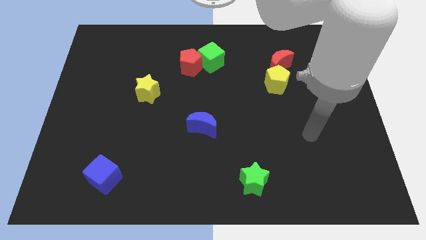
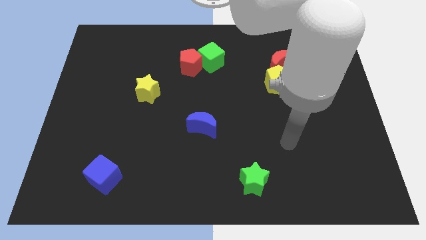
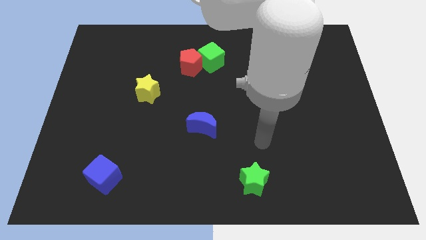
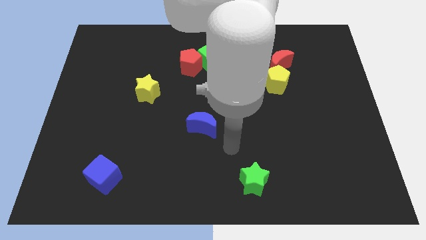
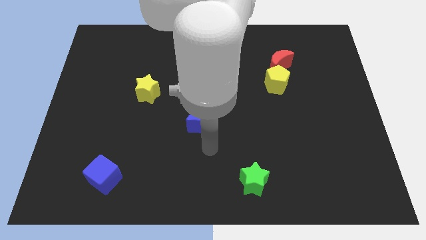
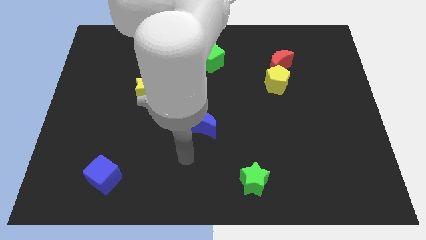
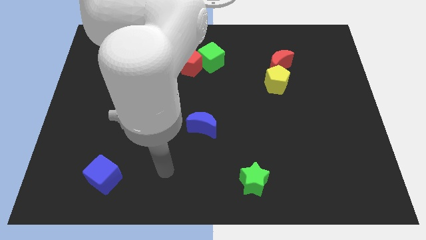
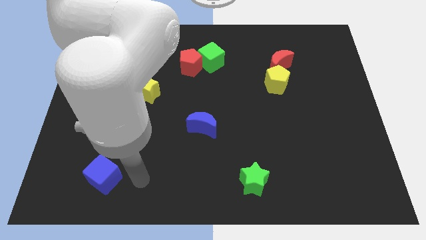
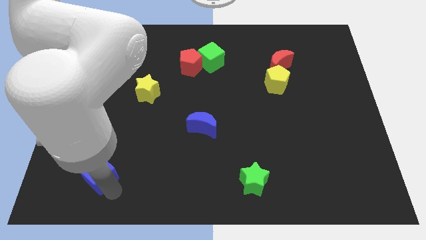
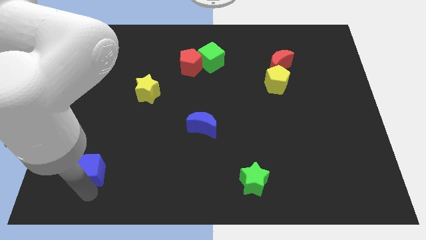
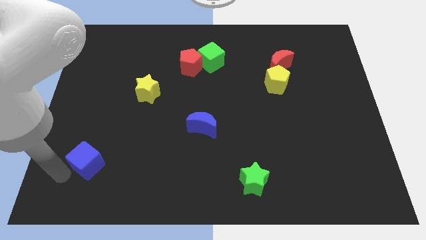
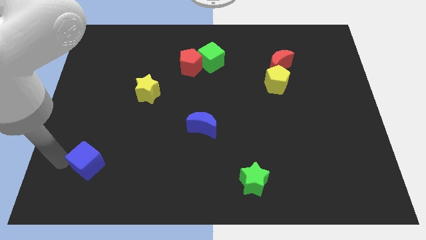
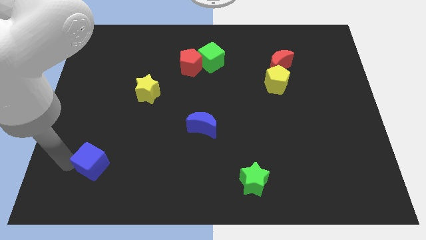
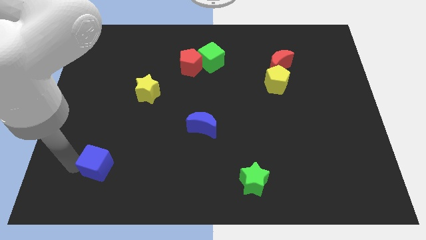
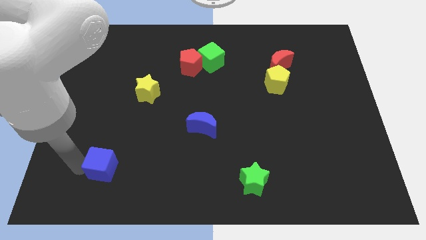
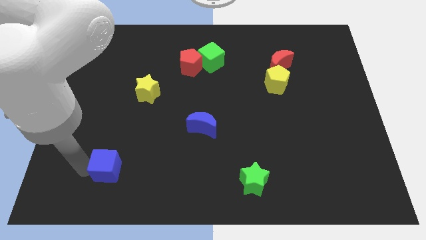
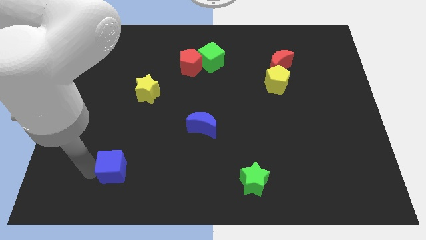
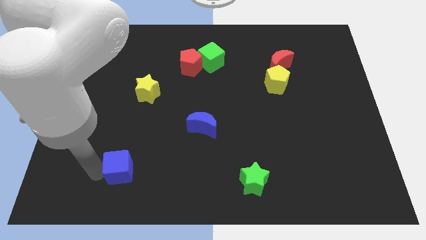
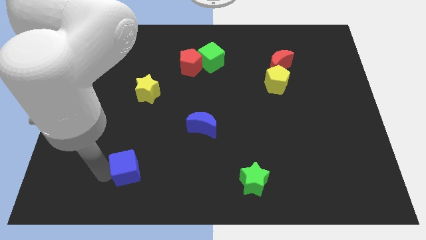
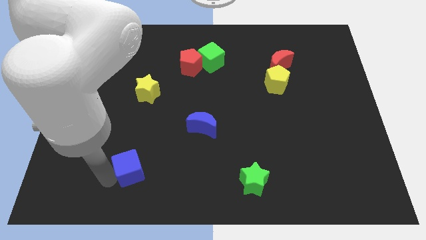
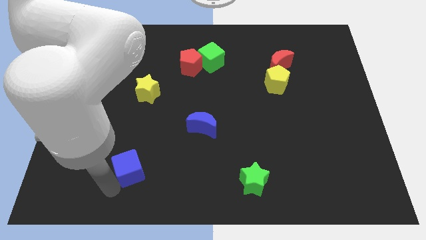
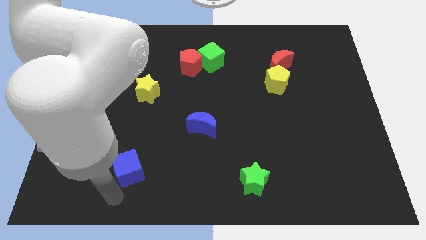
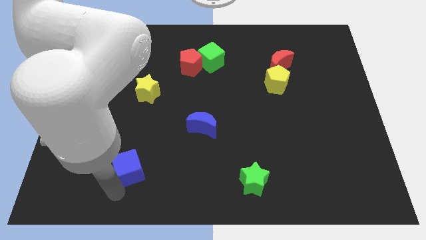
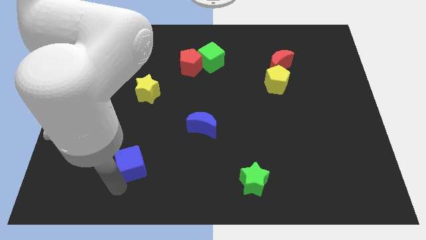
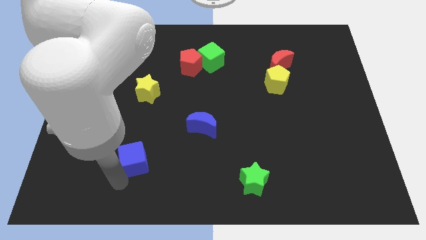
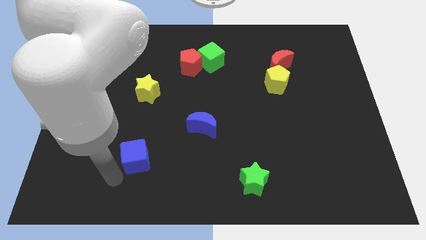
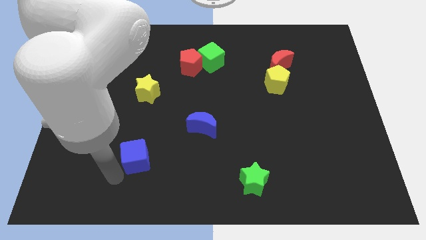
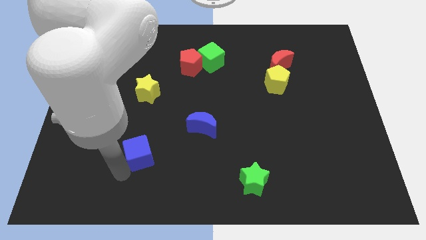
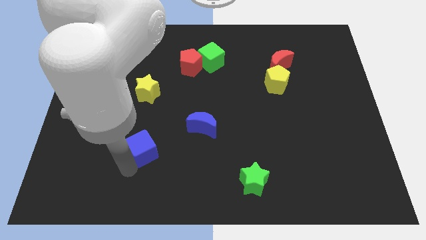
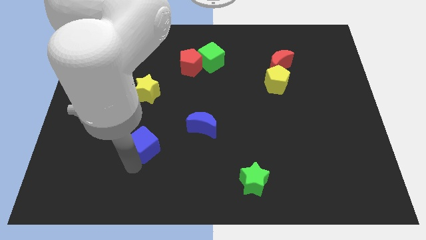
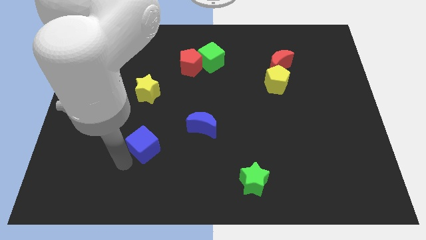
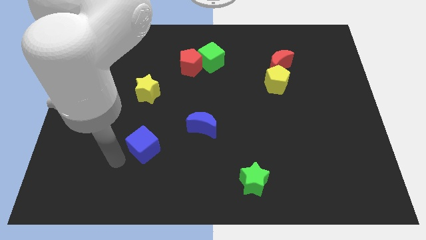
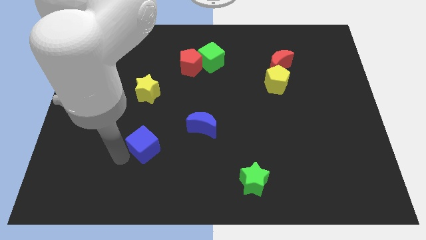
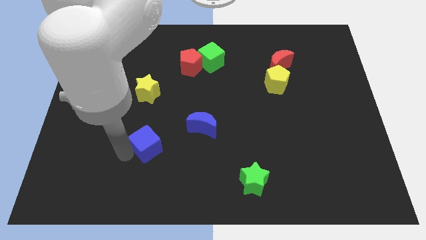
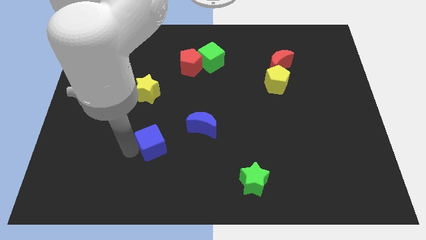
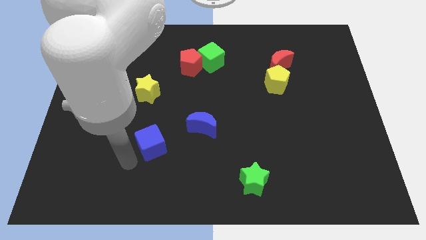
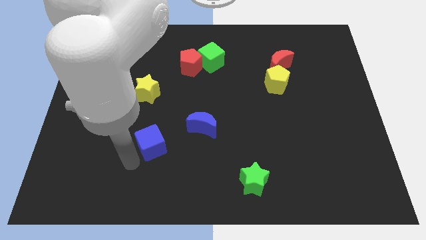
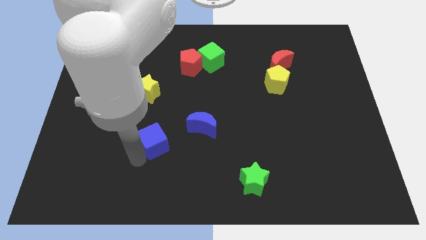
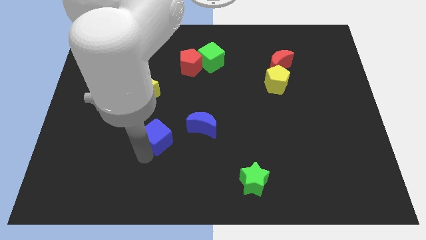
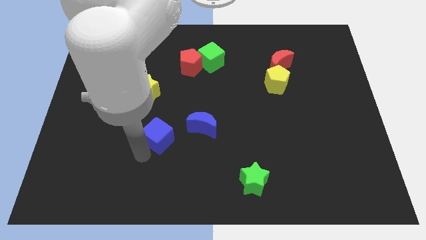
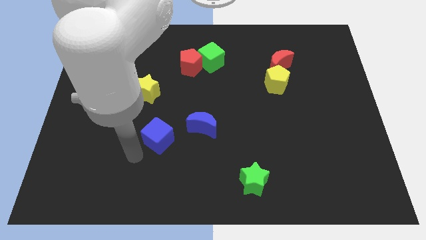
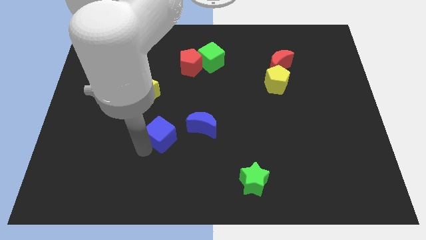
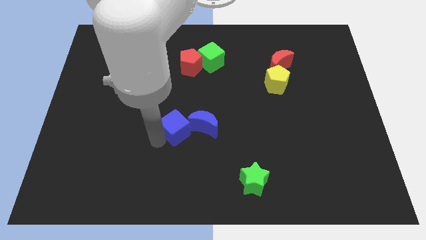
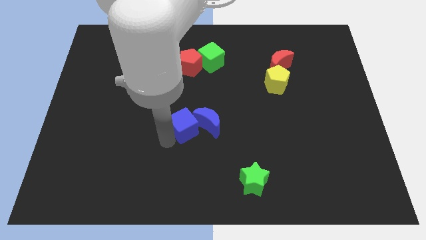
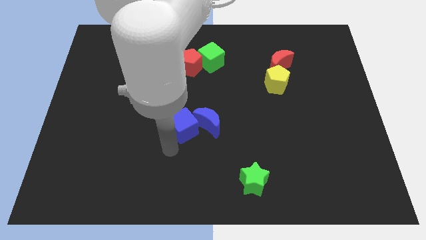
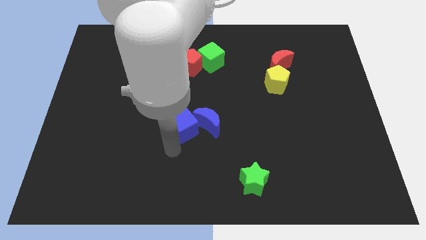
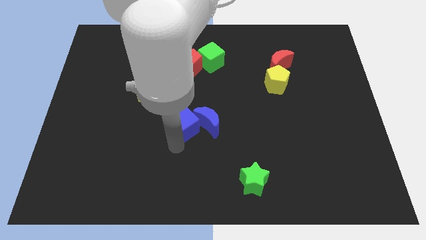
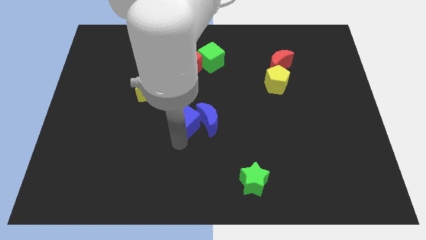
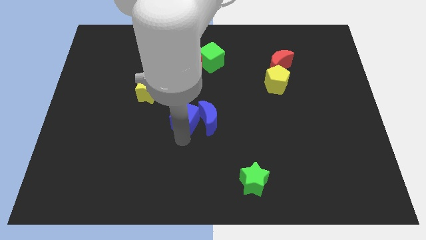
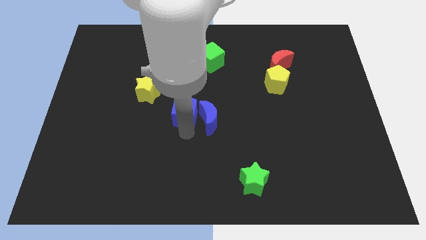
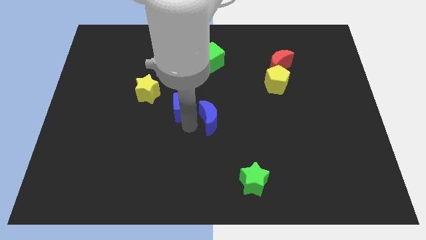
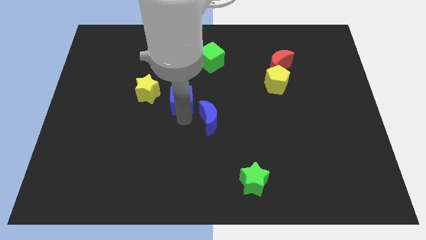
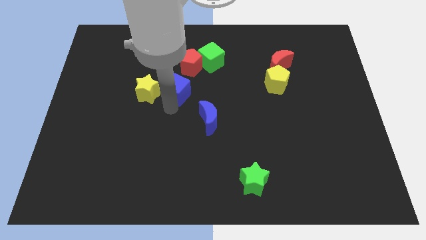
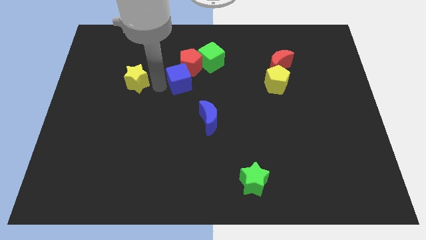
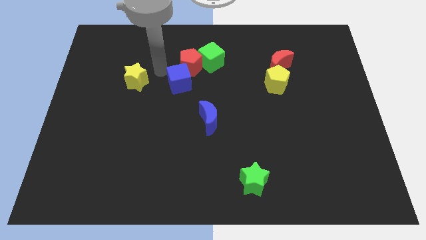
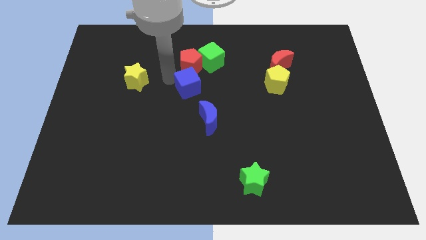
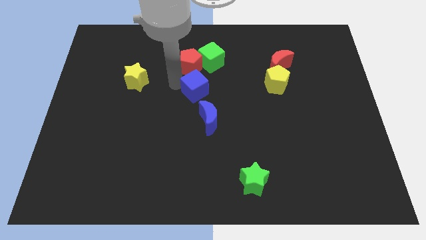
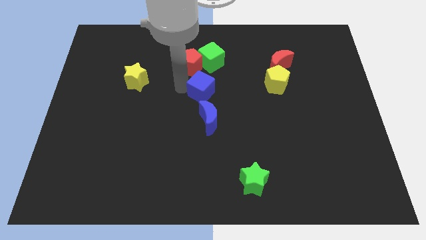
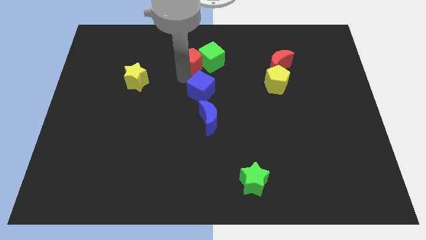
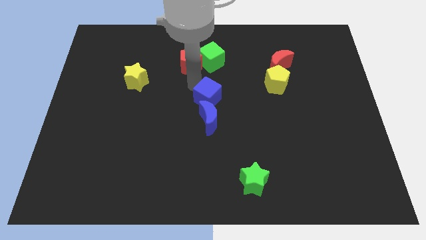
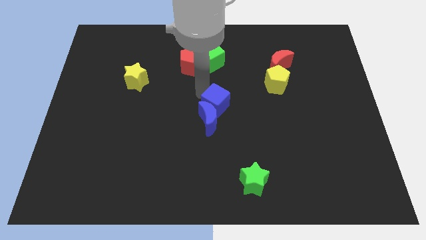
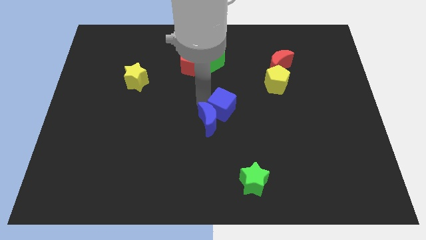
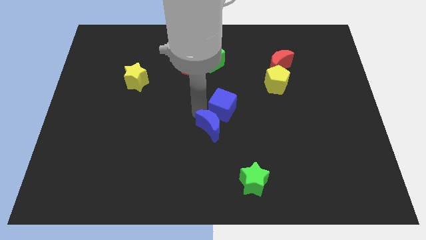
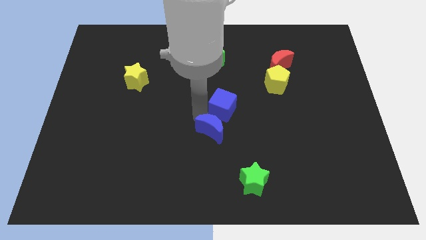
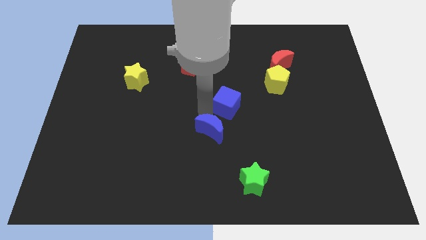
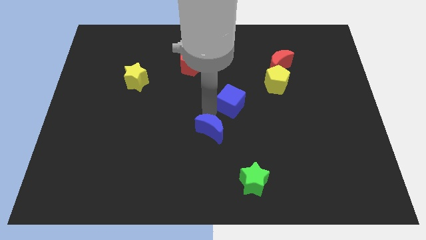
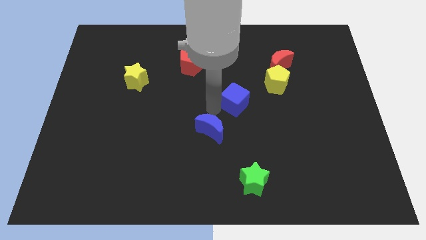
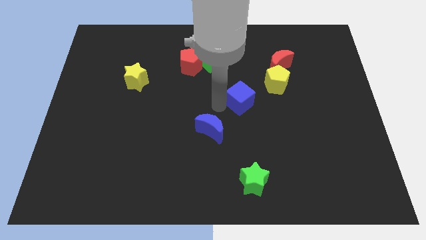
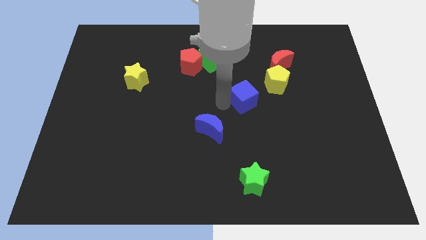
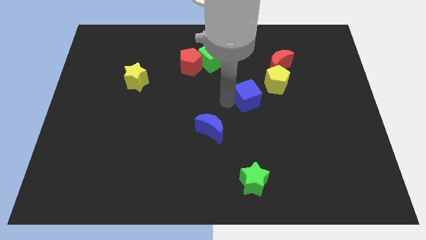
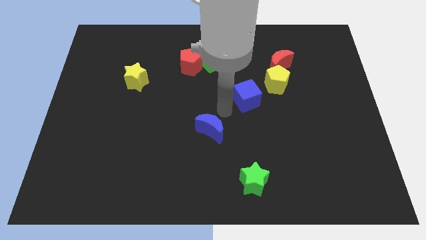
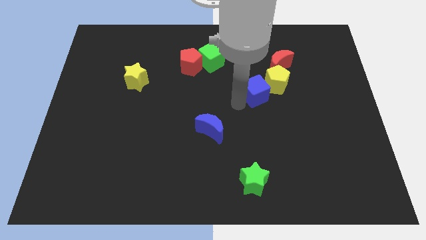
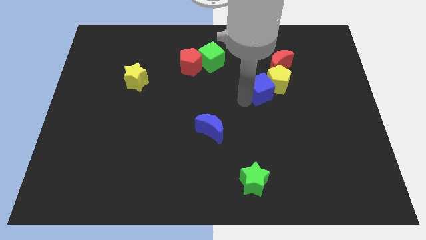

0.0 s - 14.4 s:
slide the blue cube close to the yellow pentagon

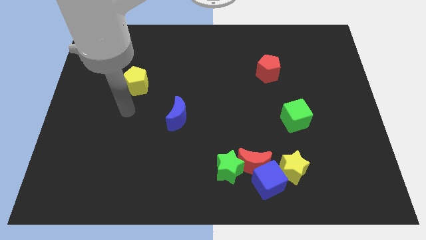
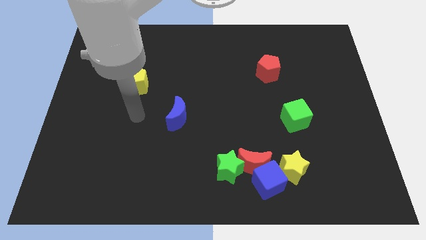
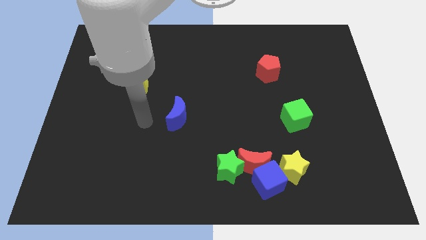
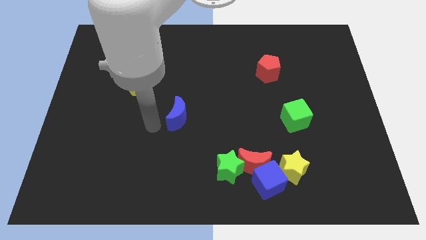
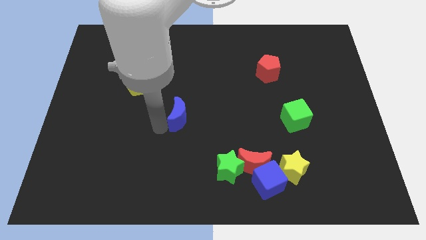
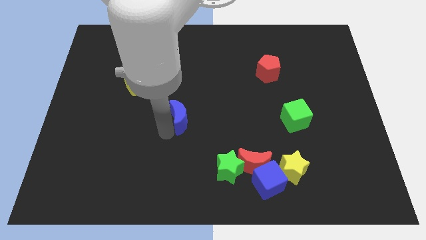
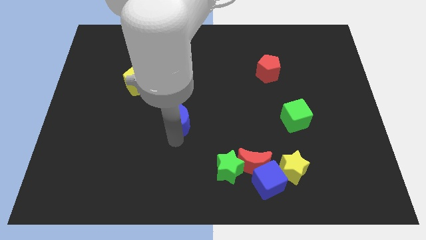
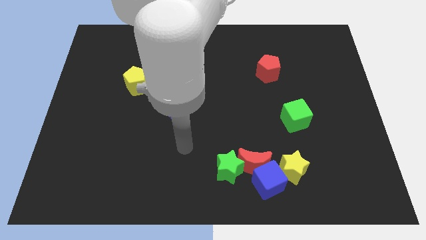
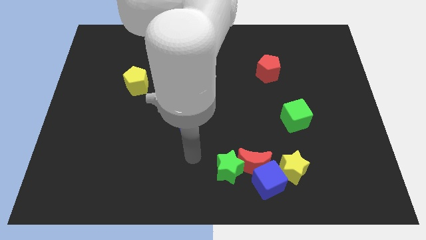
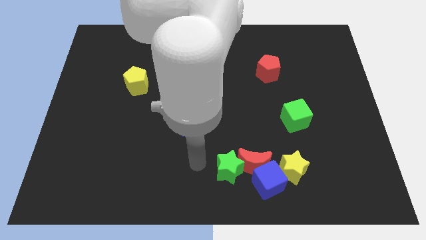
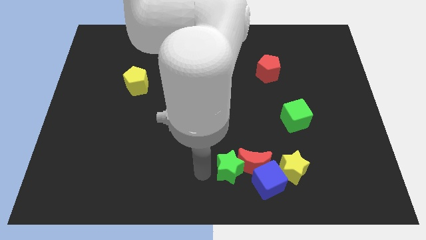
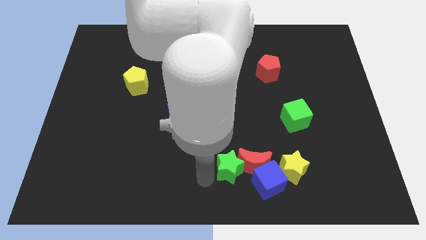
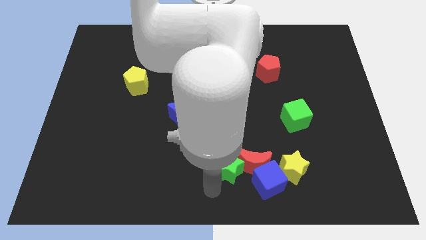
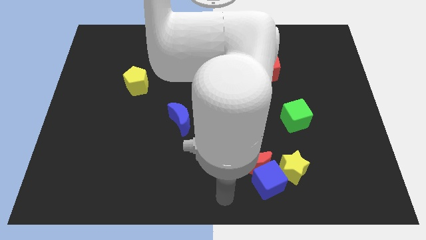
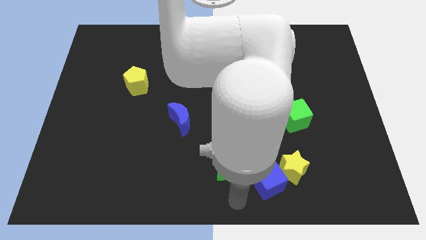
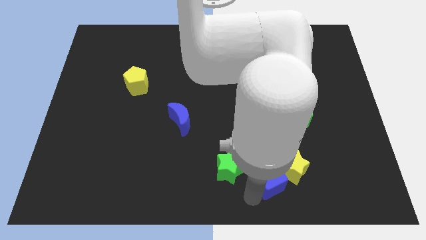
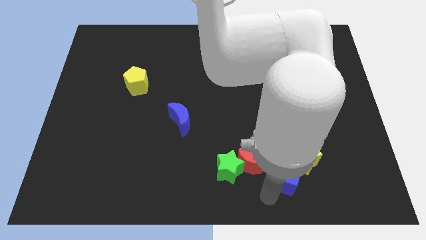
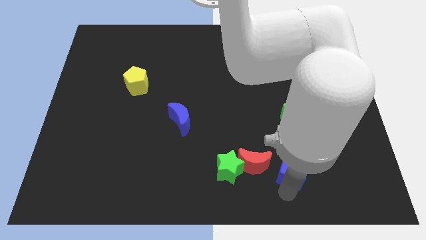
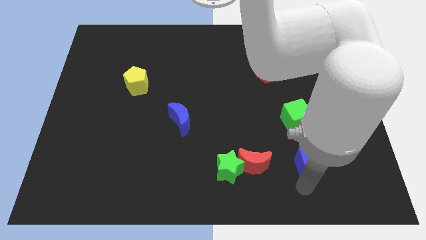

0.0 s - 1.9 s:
move the yellow star to the green cube
